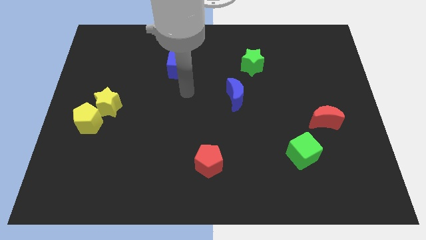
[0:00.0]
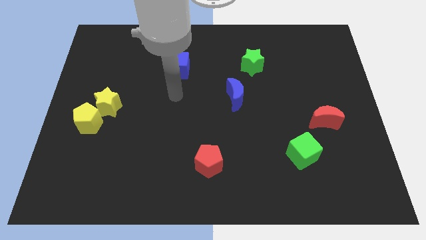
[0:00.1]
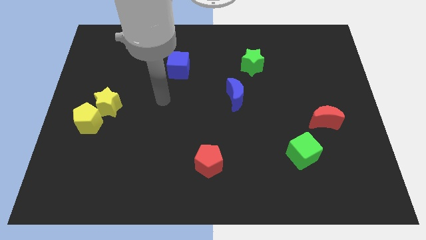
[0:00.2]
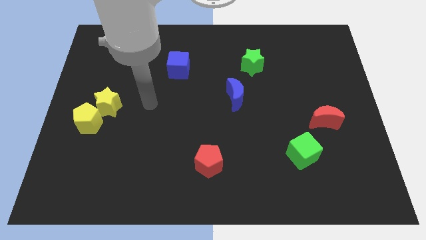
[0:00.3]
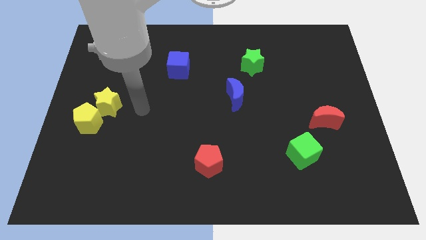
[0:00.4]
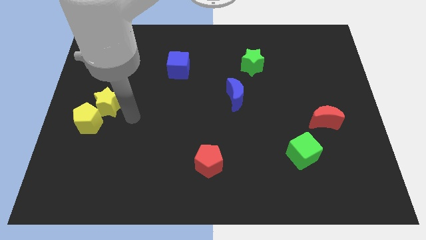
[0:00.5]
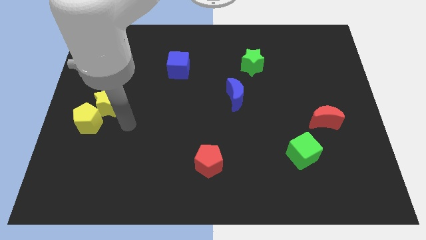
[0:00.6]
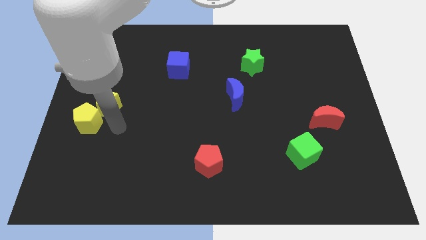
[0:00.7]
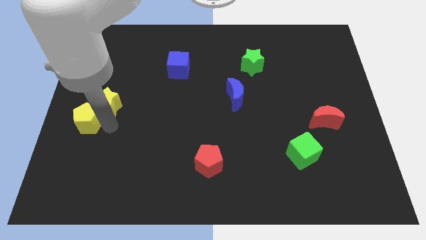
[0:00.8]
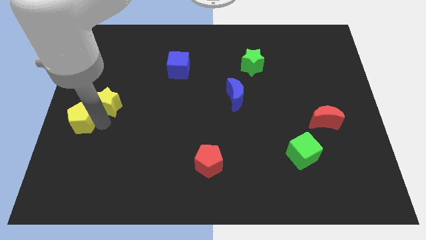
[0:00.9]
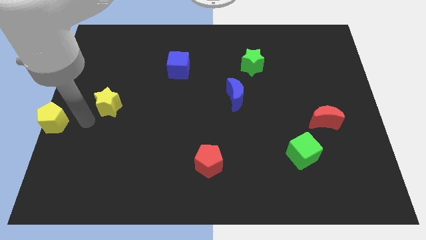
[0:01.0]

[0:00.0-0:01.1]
separate the yellow star from the yellow pentagon

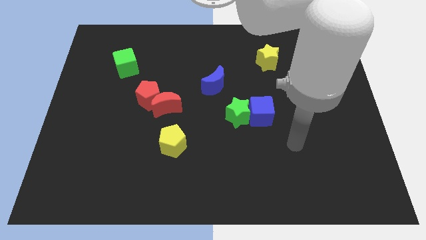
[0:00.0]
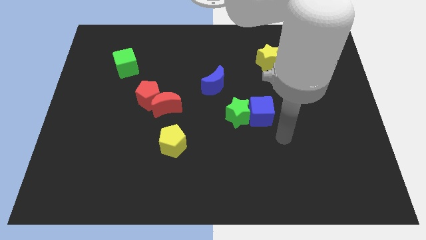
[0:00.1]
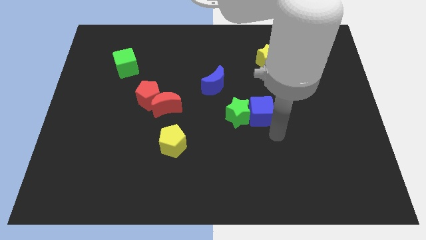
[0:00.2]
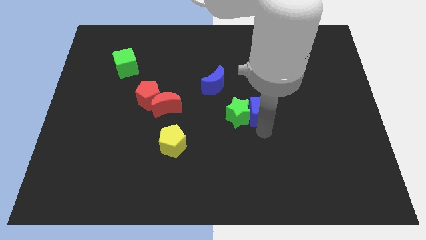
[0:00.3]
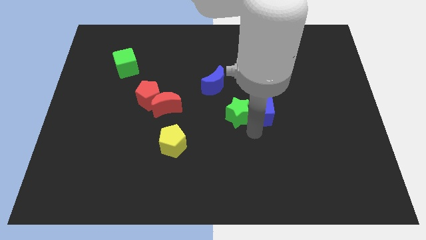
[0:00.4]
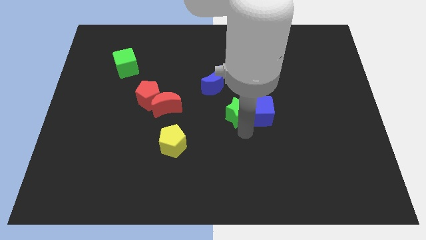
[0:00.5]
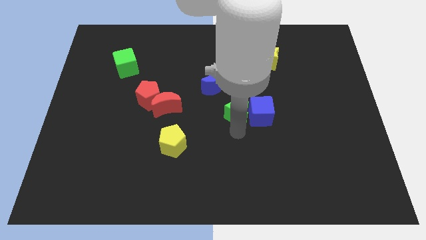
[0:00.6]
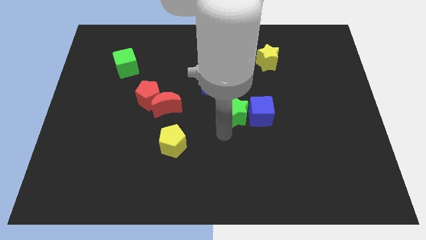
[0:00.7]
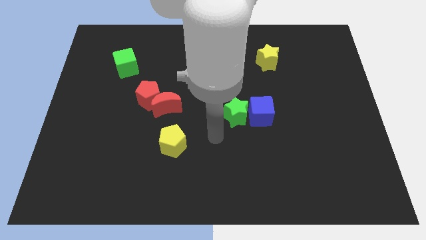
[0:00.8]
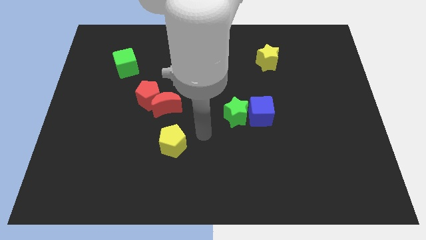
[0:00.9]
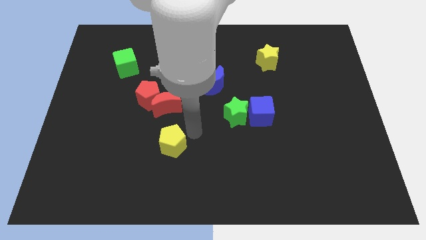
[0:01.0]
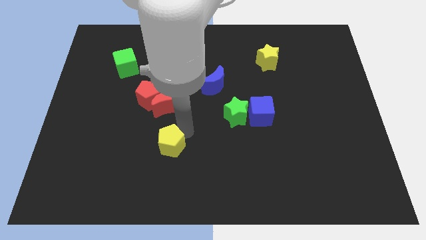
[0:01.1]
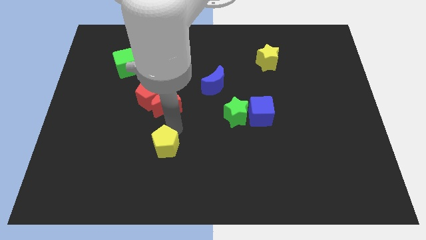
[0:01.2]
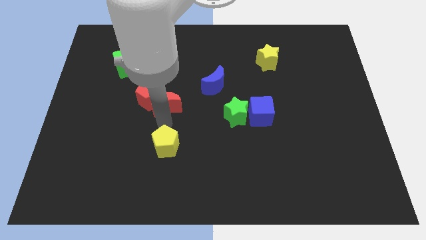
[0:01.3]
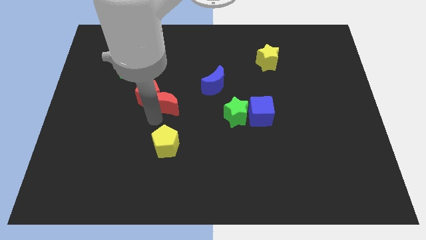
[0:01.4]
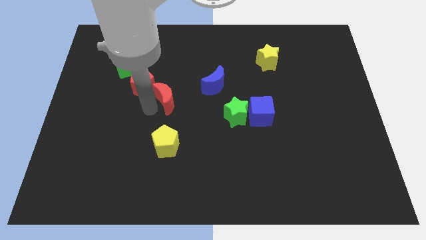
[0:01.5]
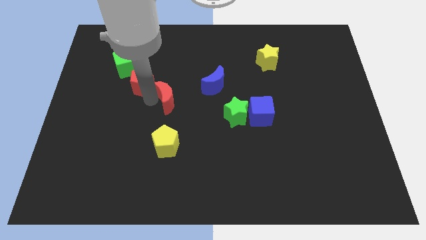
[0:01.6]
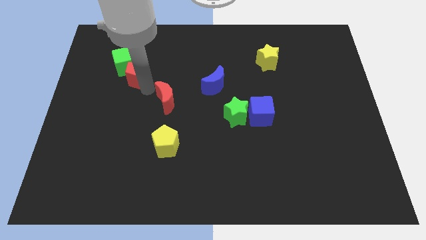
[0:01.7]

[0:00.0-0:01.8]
move the red moon away from the red pentagon

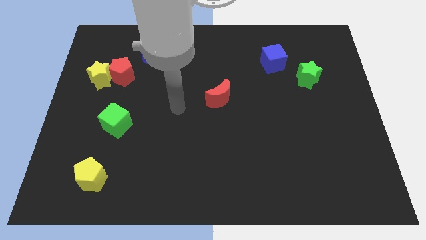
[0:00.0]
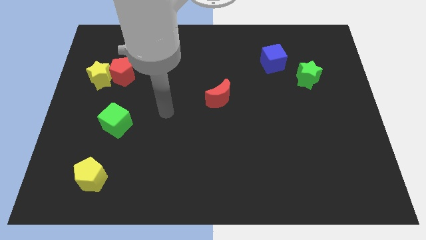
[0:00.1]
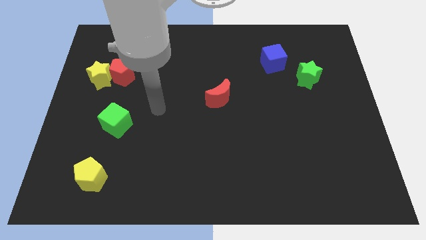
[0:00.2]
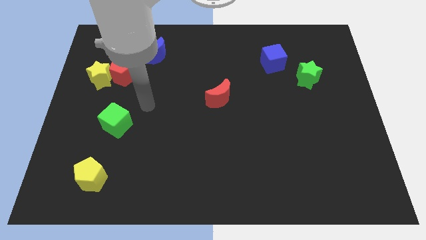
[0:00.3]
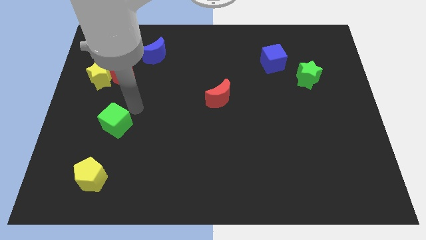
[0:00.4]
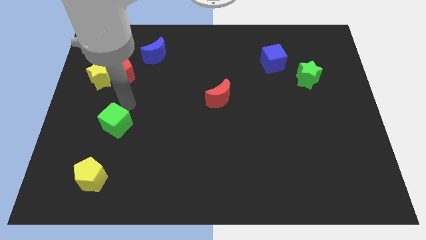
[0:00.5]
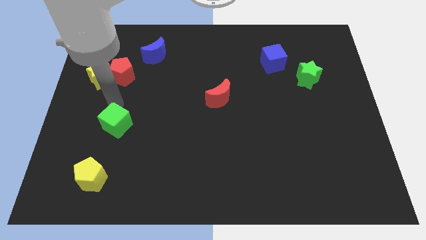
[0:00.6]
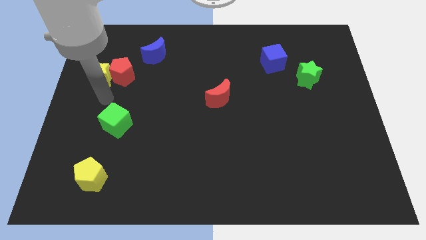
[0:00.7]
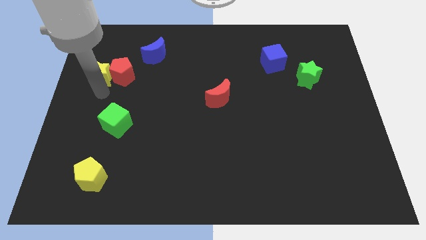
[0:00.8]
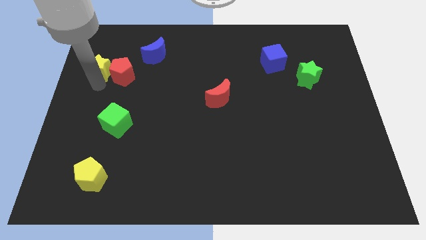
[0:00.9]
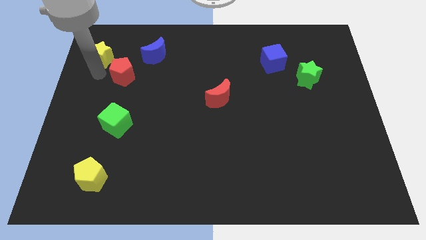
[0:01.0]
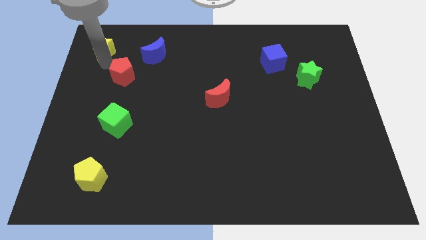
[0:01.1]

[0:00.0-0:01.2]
pull the red pentagon apart from the yellow star

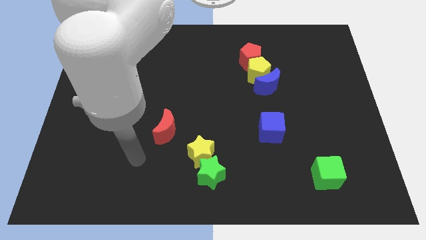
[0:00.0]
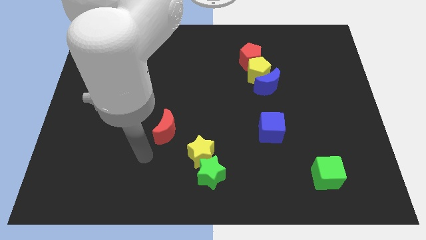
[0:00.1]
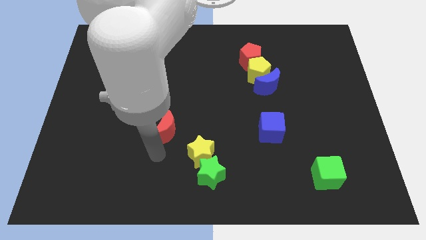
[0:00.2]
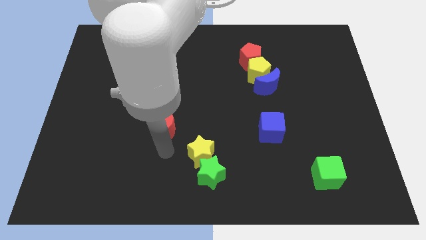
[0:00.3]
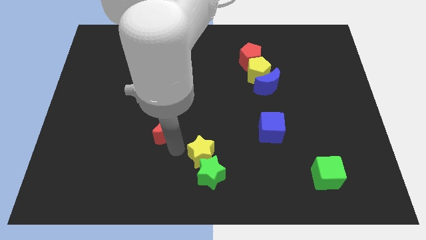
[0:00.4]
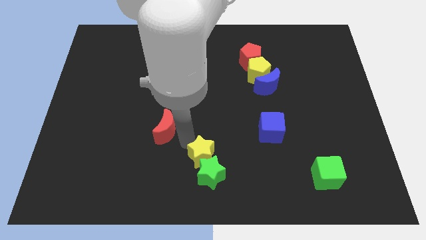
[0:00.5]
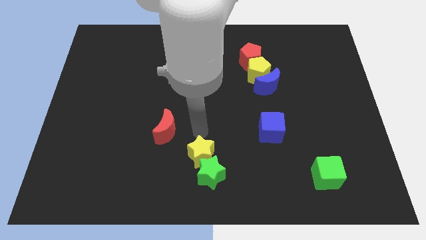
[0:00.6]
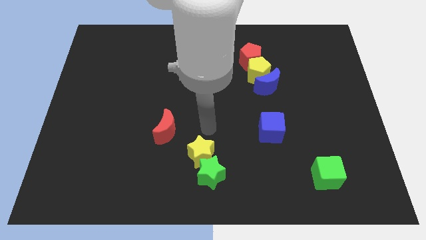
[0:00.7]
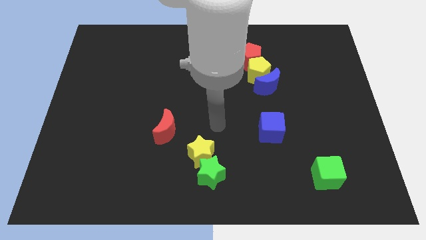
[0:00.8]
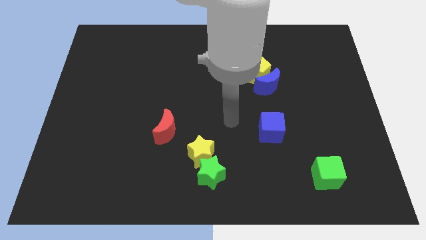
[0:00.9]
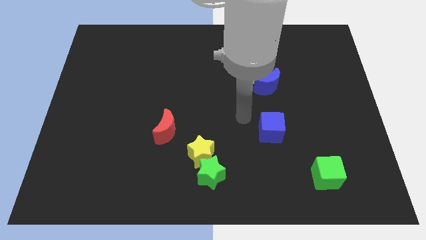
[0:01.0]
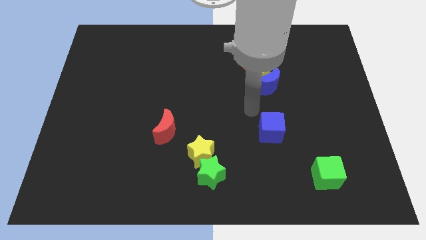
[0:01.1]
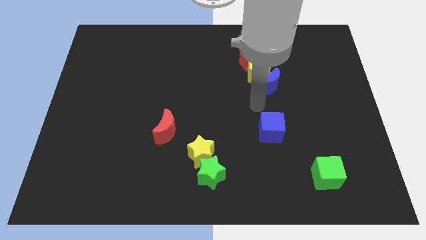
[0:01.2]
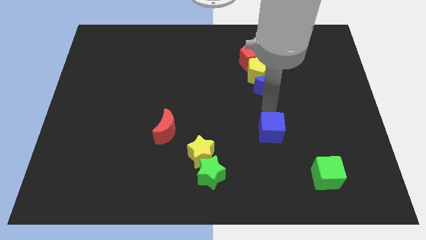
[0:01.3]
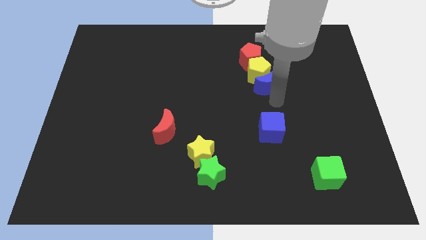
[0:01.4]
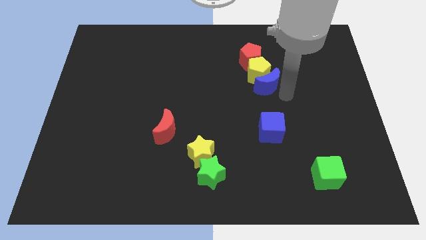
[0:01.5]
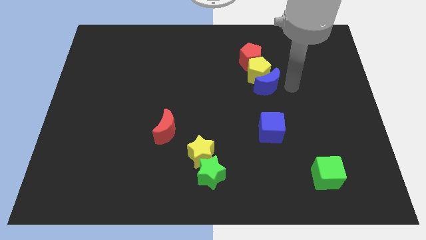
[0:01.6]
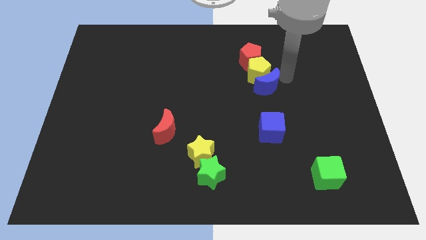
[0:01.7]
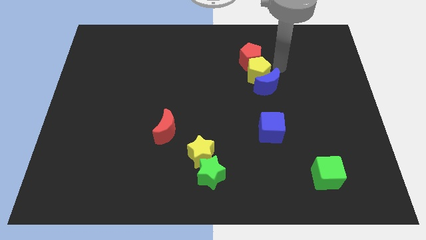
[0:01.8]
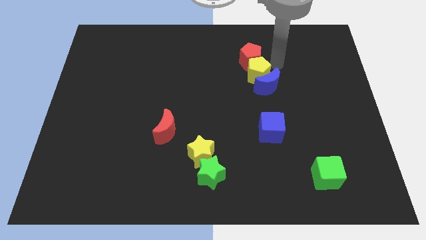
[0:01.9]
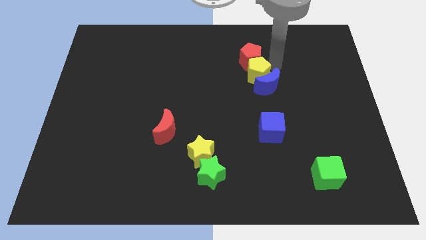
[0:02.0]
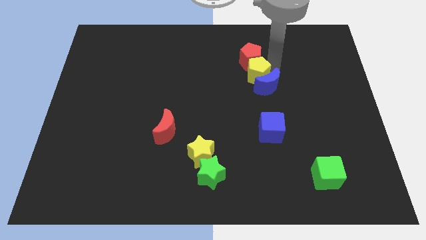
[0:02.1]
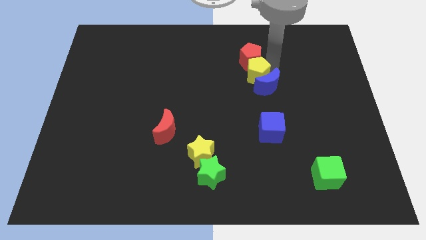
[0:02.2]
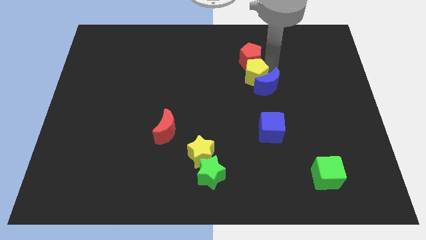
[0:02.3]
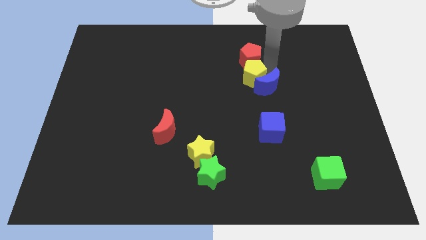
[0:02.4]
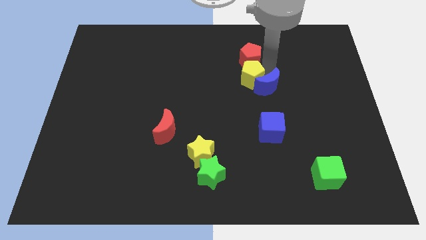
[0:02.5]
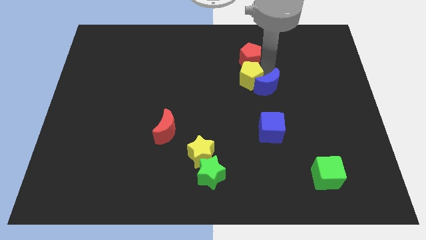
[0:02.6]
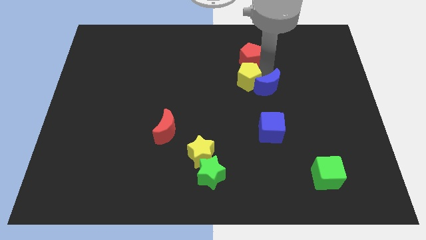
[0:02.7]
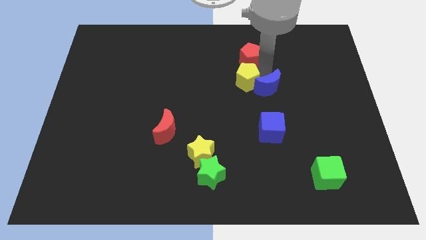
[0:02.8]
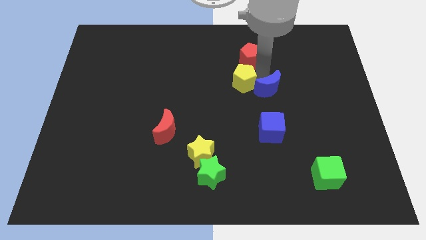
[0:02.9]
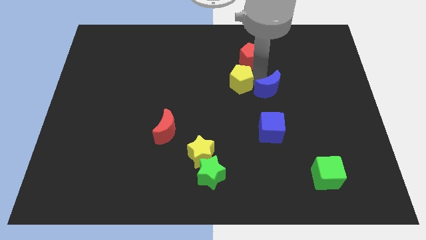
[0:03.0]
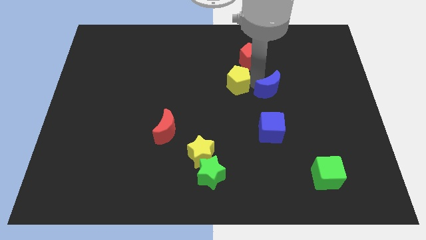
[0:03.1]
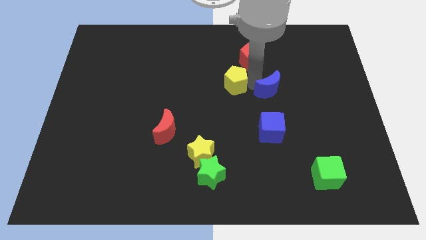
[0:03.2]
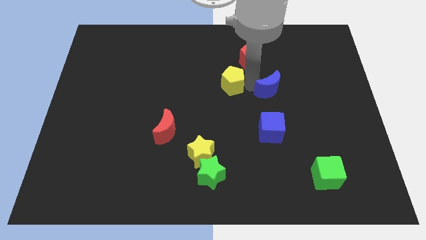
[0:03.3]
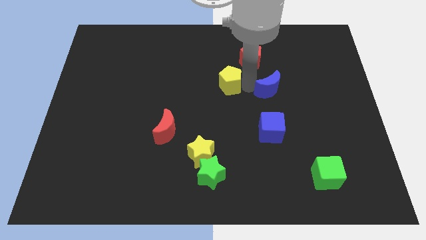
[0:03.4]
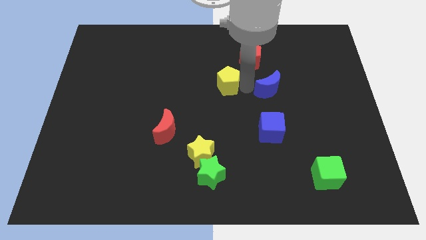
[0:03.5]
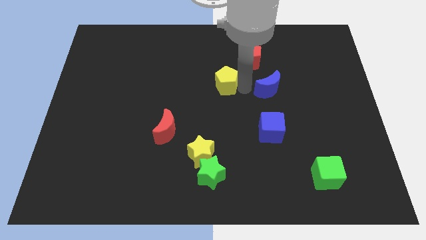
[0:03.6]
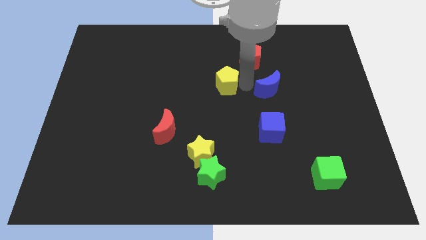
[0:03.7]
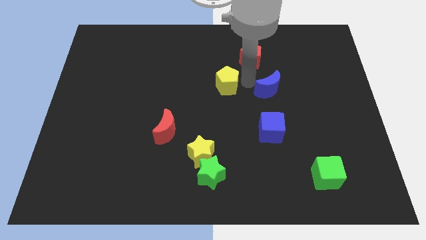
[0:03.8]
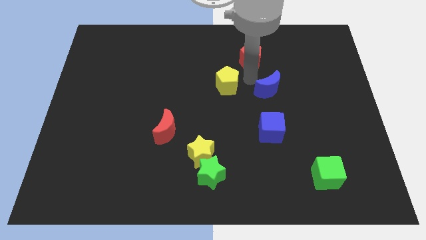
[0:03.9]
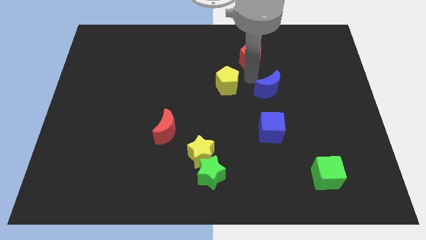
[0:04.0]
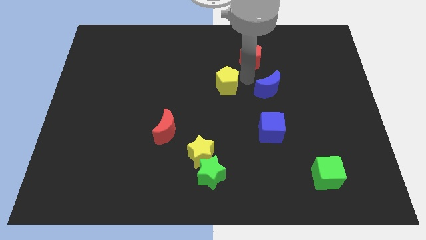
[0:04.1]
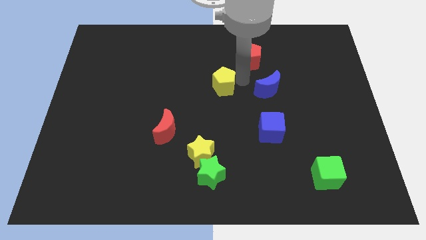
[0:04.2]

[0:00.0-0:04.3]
pull the yellow pentagon apart from the blue moon and red pentagon

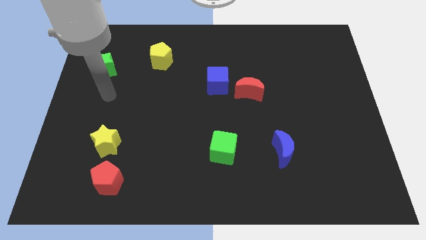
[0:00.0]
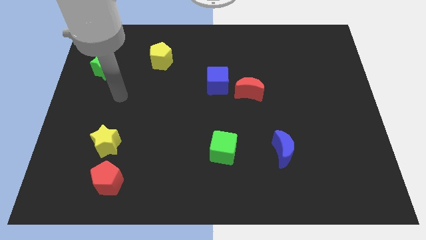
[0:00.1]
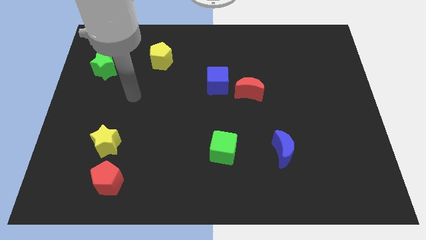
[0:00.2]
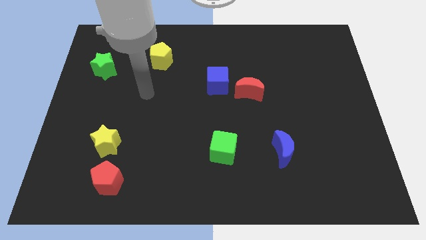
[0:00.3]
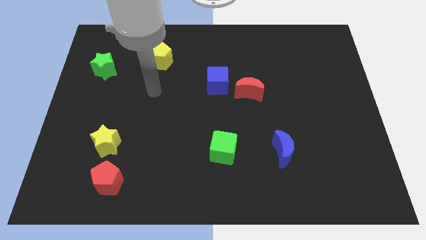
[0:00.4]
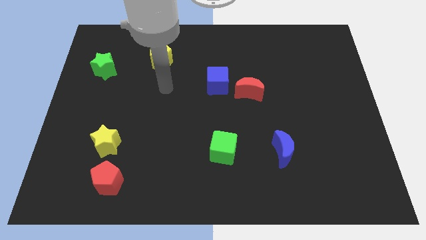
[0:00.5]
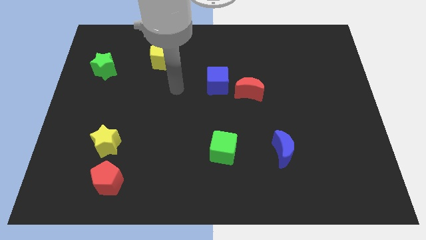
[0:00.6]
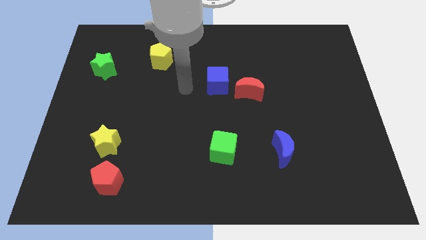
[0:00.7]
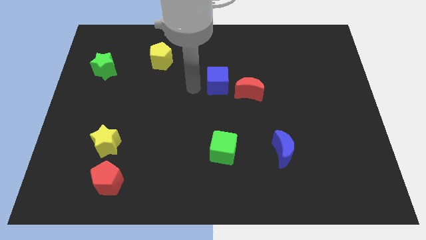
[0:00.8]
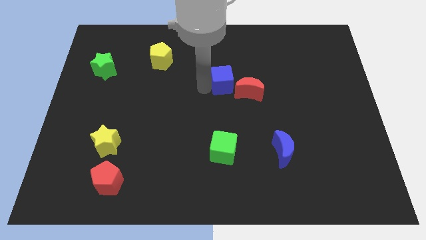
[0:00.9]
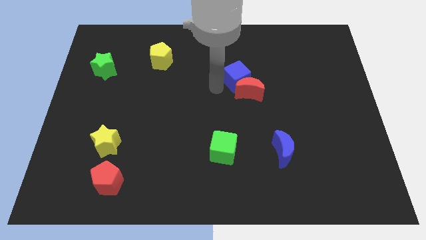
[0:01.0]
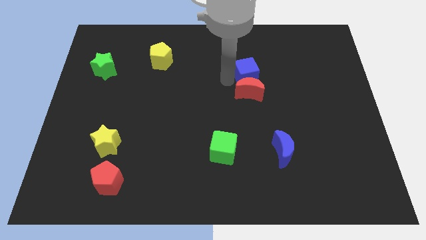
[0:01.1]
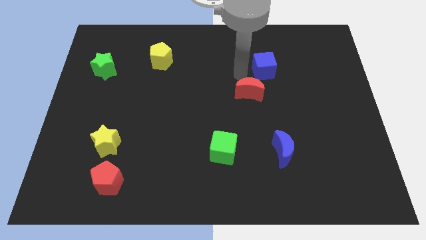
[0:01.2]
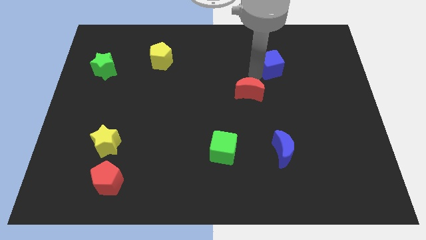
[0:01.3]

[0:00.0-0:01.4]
separate the red moon from the blue cube
